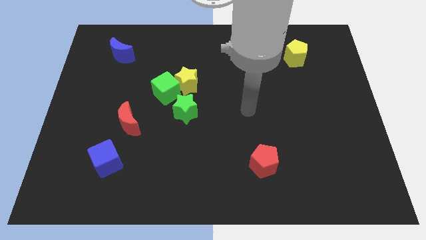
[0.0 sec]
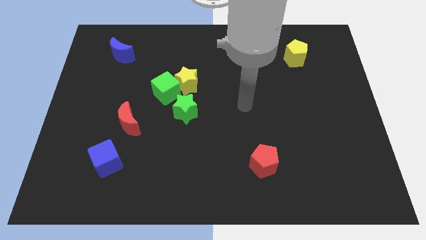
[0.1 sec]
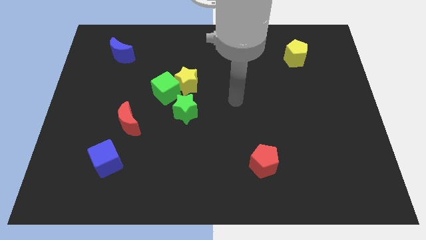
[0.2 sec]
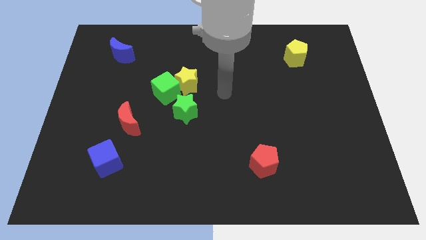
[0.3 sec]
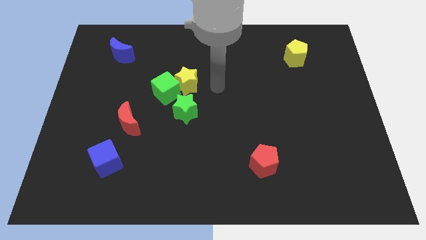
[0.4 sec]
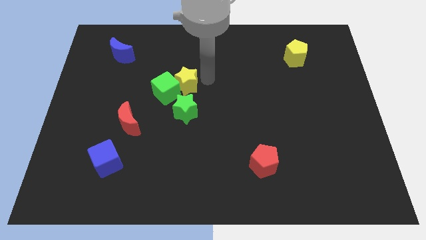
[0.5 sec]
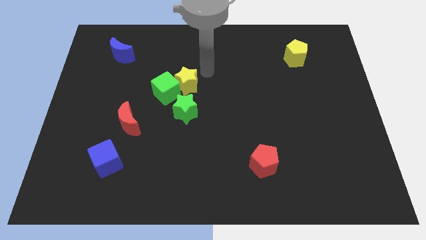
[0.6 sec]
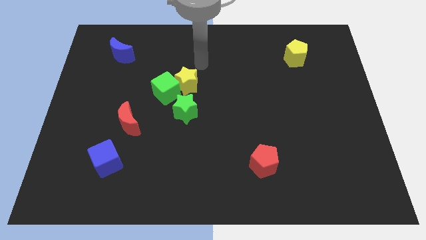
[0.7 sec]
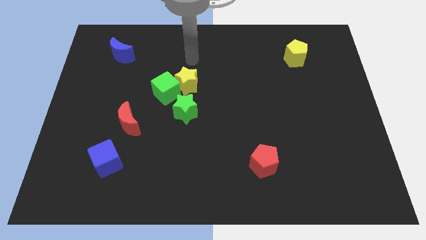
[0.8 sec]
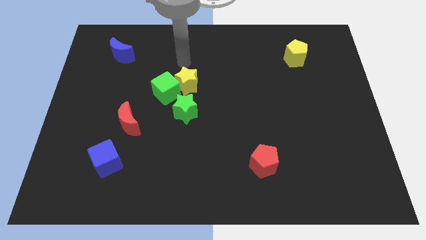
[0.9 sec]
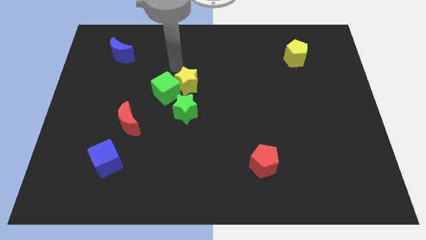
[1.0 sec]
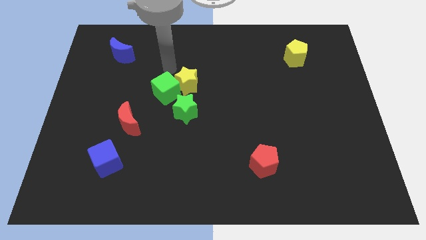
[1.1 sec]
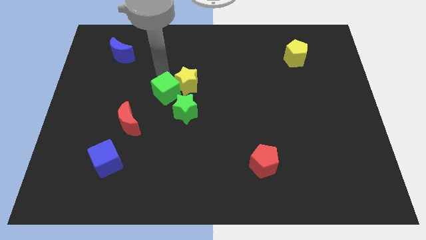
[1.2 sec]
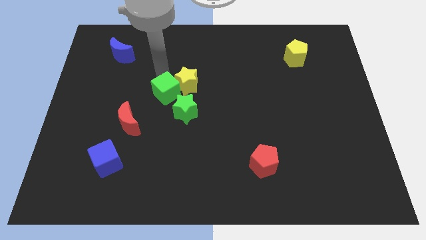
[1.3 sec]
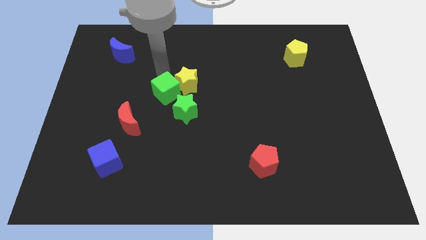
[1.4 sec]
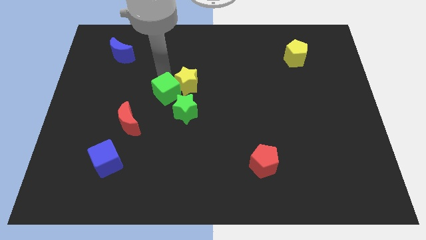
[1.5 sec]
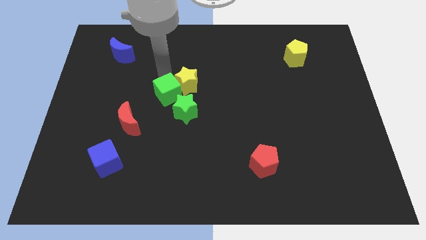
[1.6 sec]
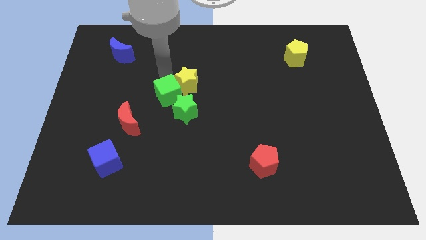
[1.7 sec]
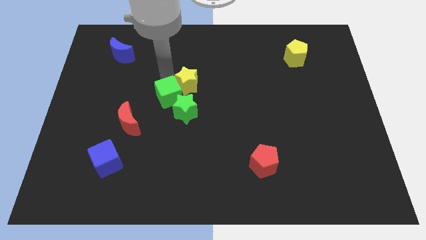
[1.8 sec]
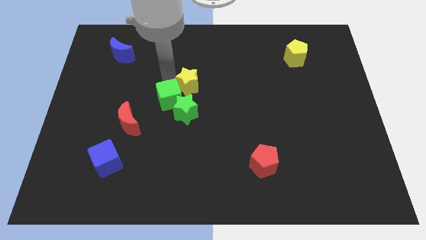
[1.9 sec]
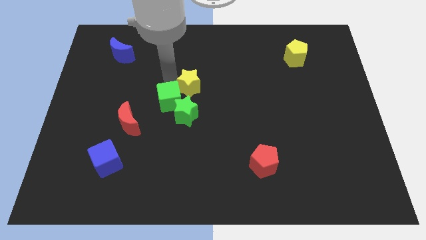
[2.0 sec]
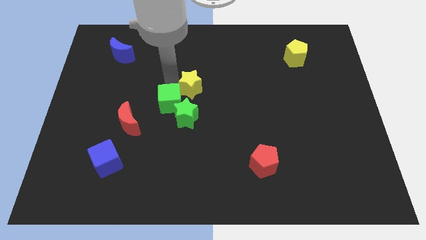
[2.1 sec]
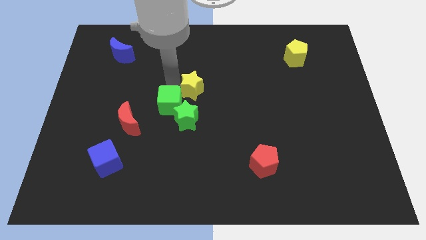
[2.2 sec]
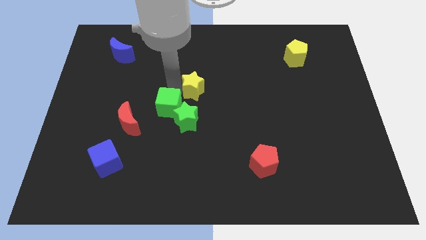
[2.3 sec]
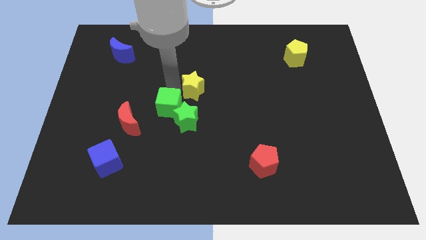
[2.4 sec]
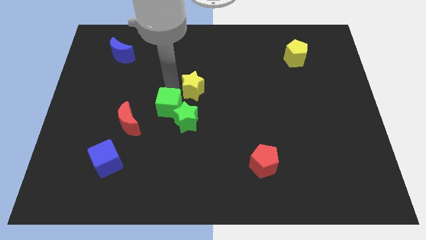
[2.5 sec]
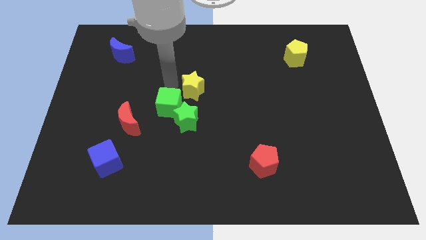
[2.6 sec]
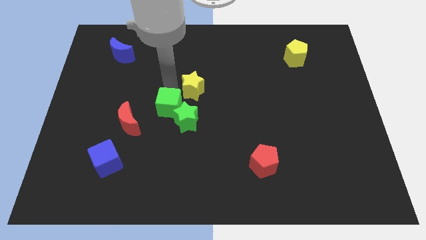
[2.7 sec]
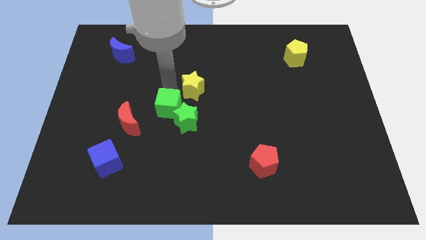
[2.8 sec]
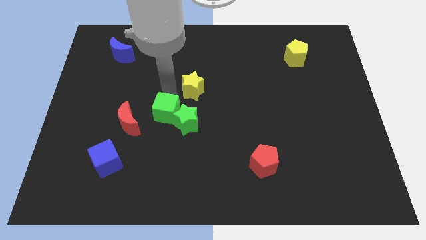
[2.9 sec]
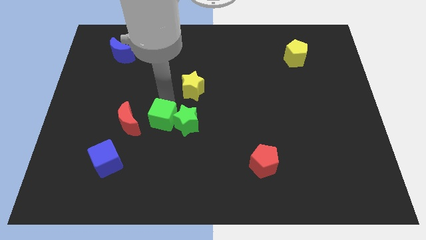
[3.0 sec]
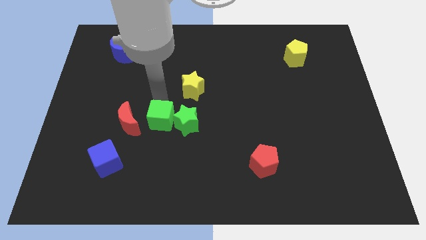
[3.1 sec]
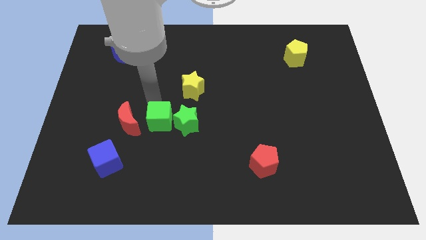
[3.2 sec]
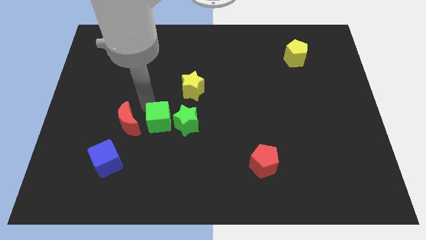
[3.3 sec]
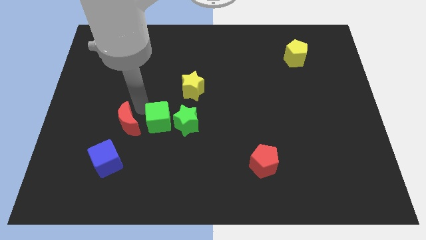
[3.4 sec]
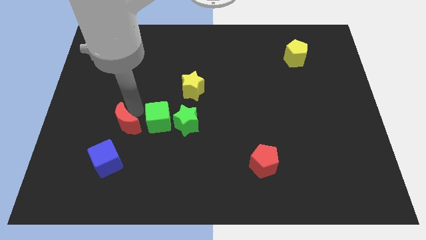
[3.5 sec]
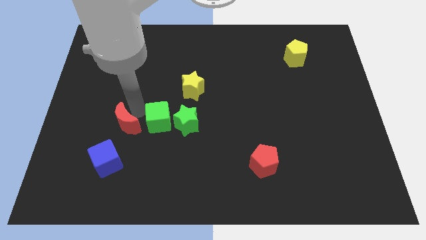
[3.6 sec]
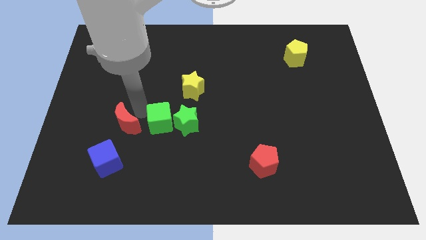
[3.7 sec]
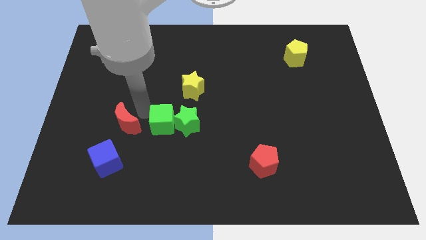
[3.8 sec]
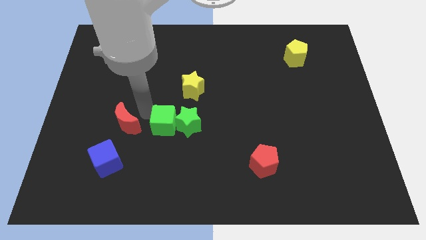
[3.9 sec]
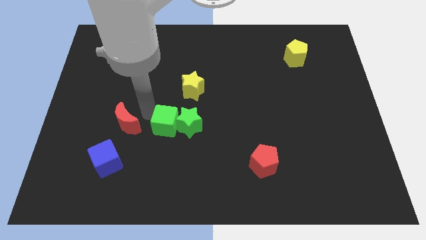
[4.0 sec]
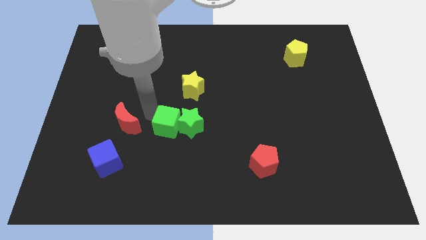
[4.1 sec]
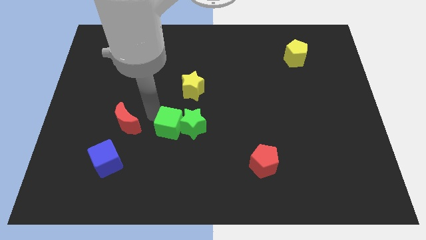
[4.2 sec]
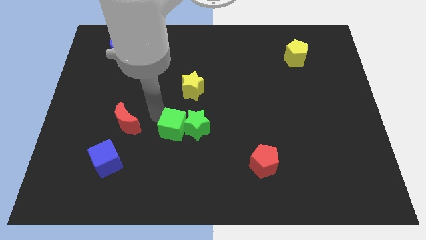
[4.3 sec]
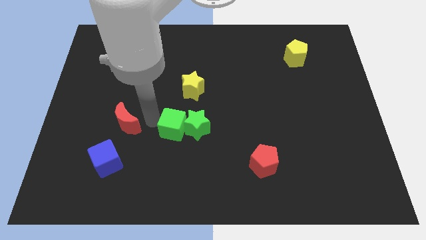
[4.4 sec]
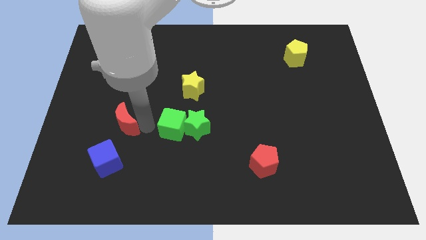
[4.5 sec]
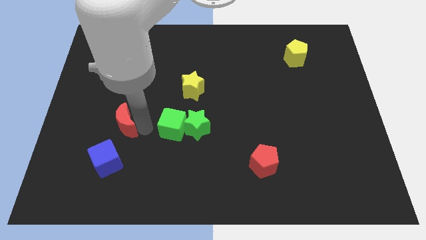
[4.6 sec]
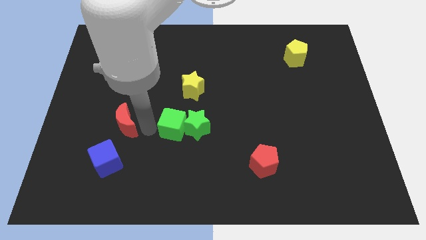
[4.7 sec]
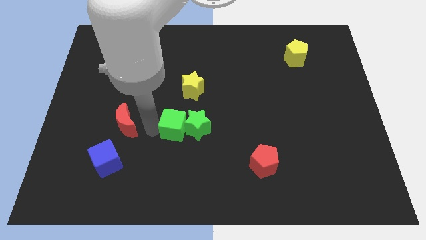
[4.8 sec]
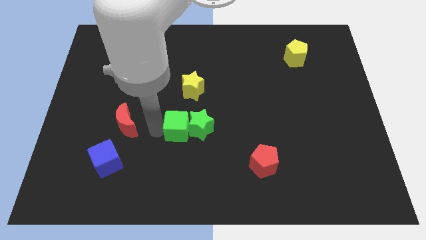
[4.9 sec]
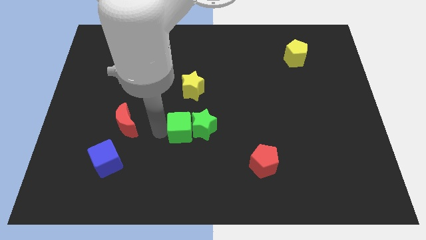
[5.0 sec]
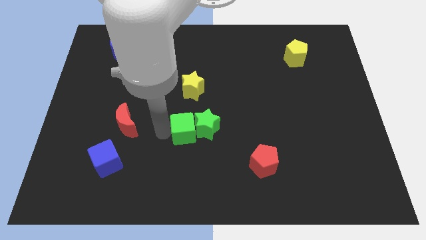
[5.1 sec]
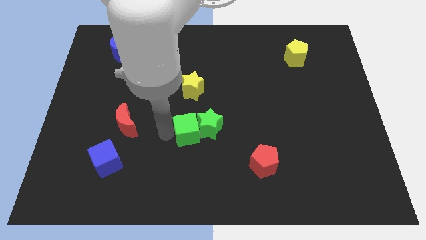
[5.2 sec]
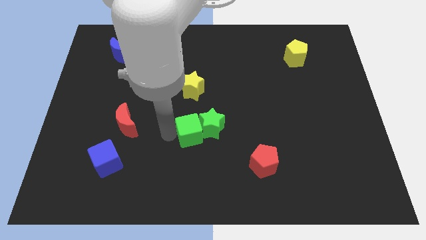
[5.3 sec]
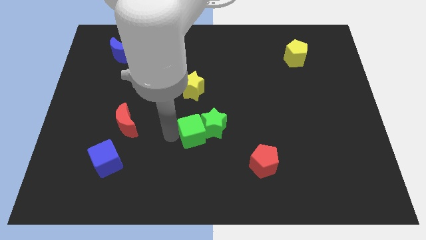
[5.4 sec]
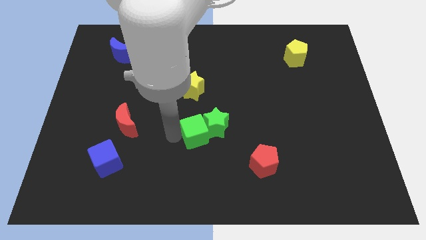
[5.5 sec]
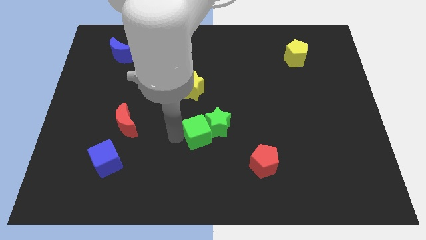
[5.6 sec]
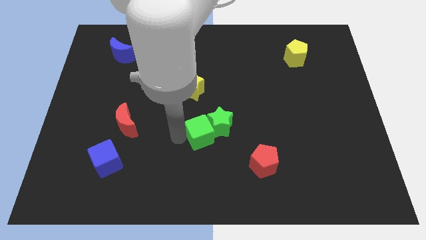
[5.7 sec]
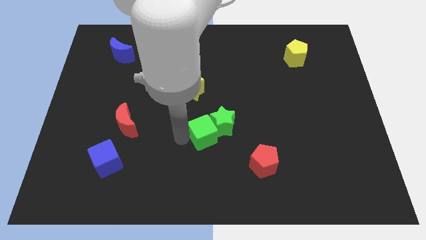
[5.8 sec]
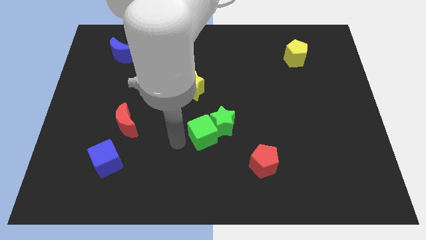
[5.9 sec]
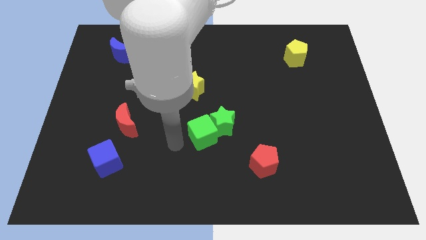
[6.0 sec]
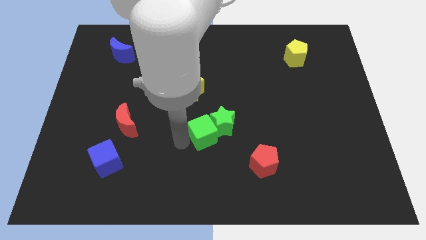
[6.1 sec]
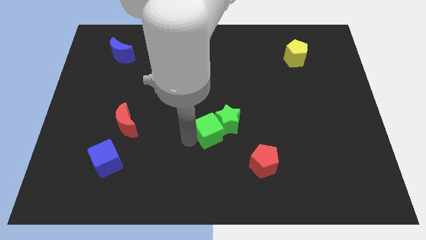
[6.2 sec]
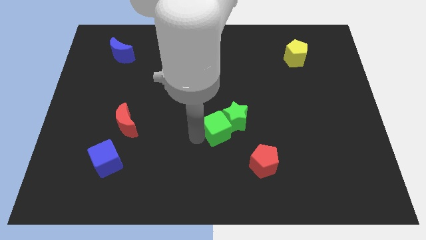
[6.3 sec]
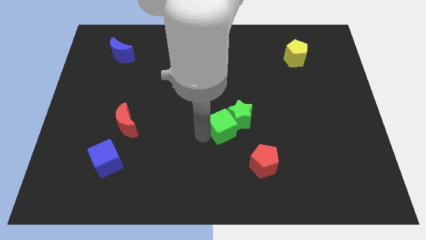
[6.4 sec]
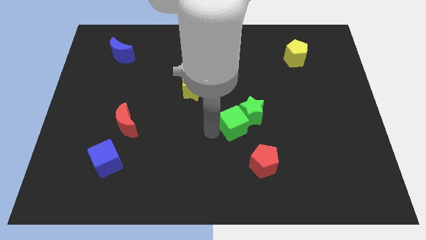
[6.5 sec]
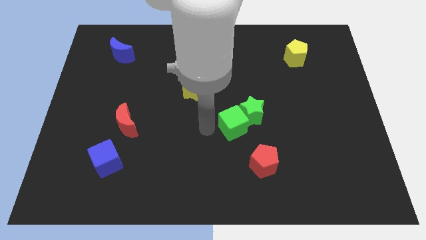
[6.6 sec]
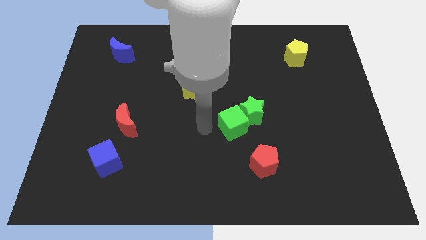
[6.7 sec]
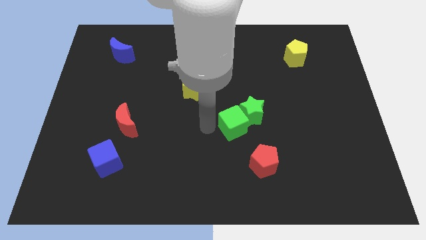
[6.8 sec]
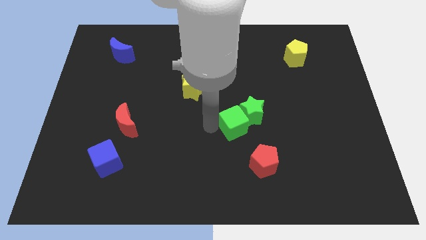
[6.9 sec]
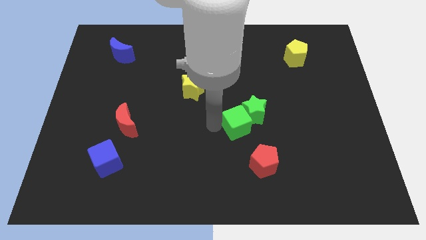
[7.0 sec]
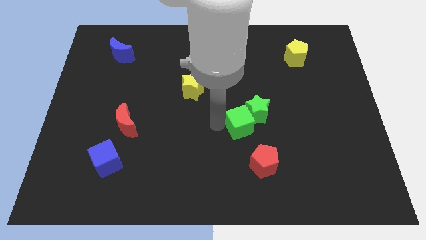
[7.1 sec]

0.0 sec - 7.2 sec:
move the green cube to the top of the red pentagon
